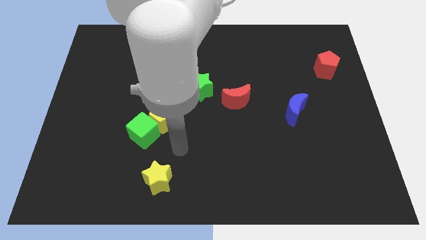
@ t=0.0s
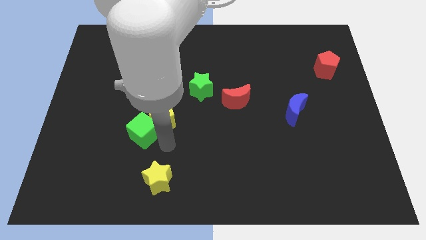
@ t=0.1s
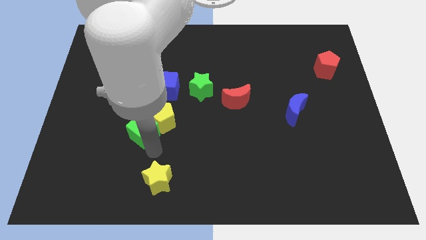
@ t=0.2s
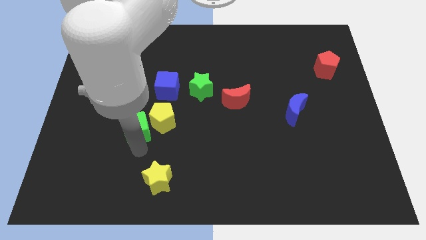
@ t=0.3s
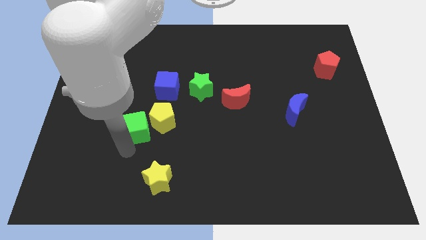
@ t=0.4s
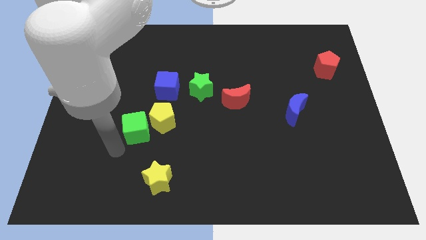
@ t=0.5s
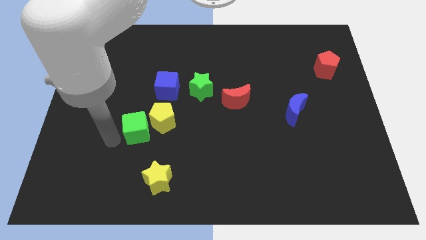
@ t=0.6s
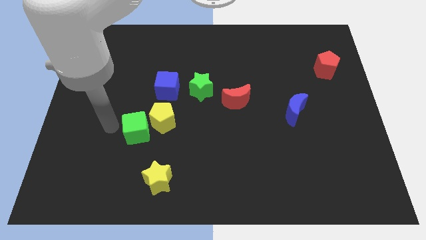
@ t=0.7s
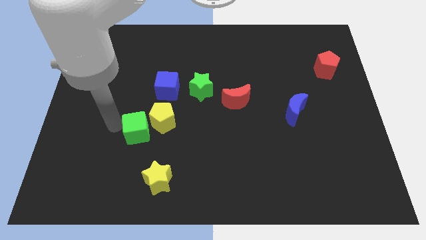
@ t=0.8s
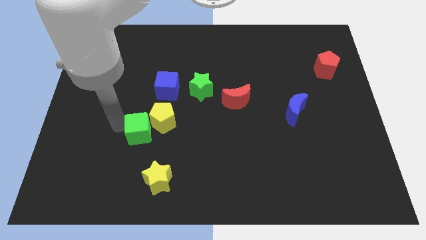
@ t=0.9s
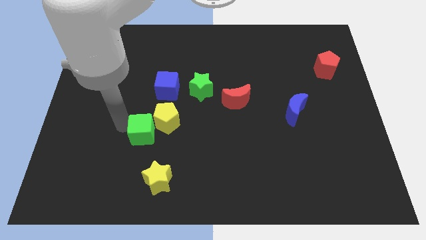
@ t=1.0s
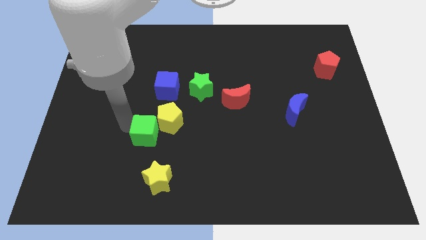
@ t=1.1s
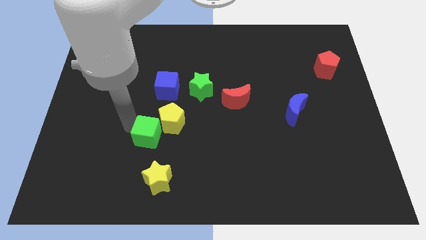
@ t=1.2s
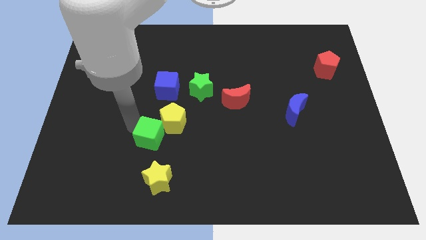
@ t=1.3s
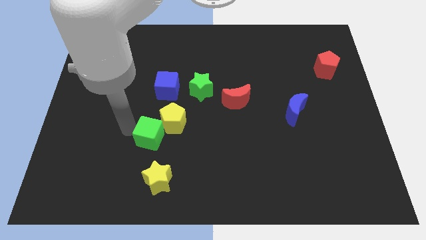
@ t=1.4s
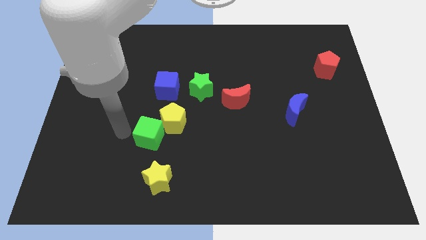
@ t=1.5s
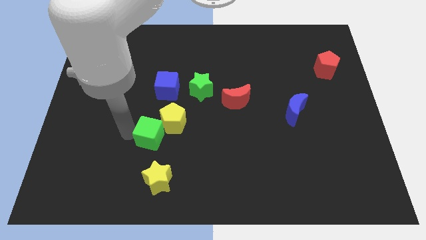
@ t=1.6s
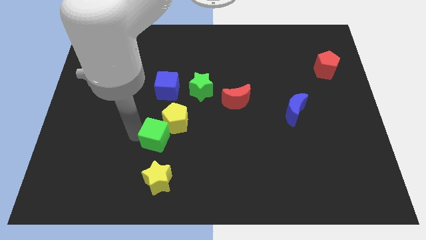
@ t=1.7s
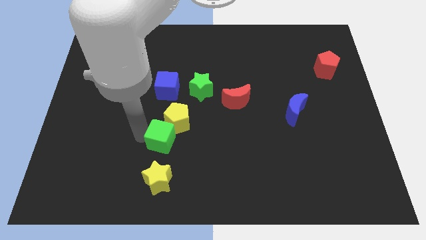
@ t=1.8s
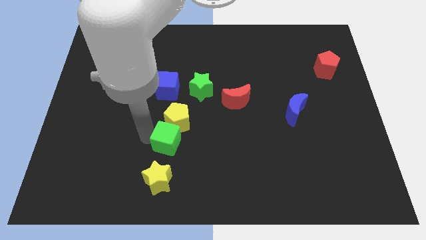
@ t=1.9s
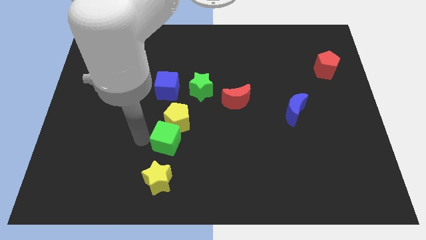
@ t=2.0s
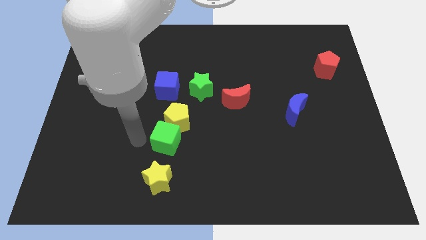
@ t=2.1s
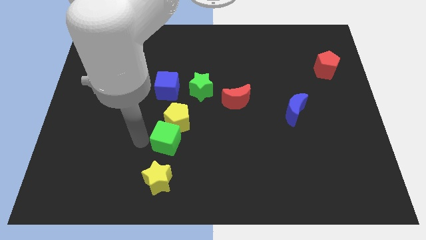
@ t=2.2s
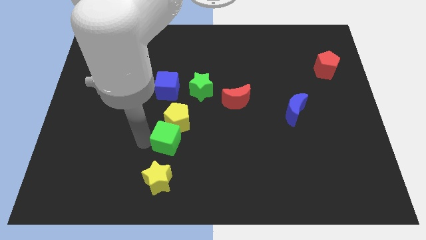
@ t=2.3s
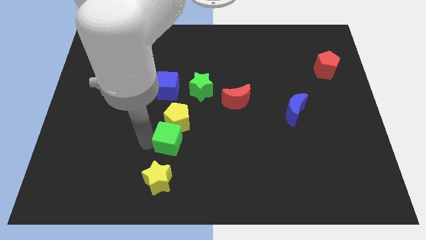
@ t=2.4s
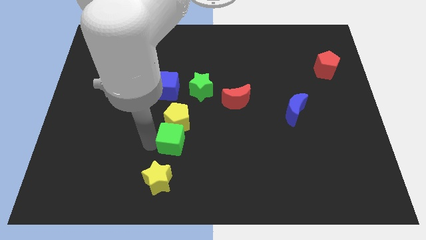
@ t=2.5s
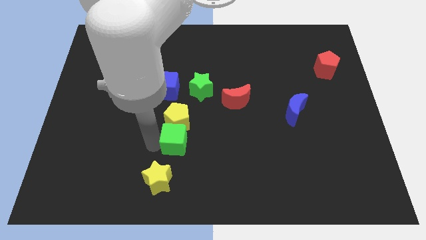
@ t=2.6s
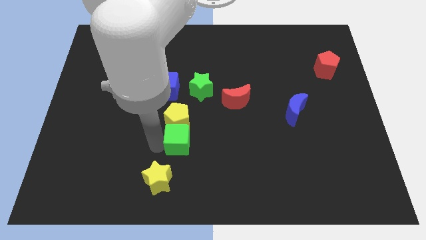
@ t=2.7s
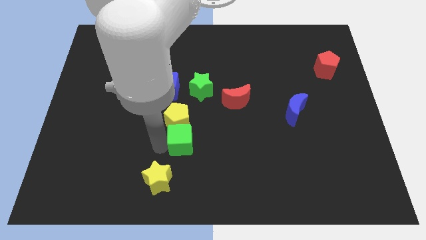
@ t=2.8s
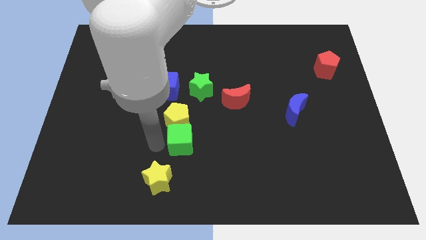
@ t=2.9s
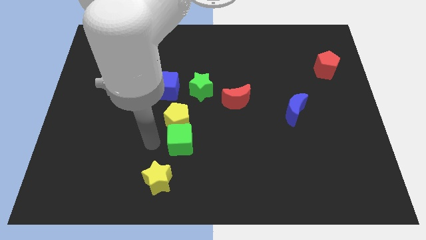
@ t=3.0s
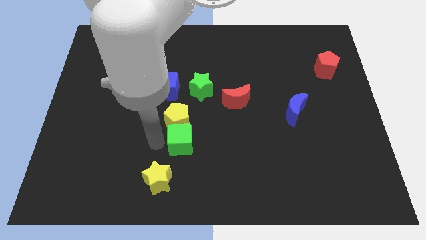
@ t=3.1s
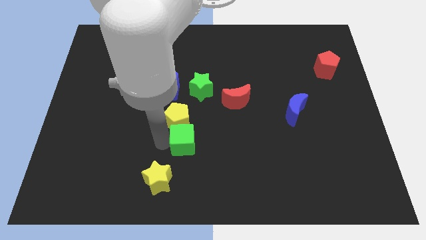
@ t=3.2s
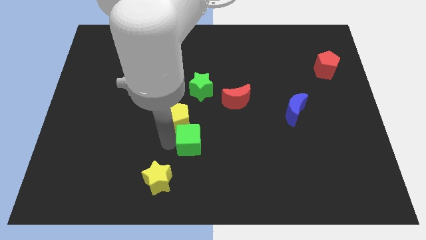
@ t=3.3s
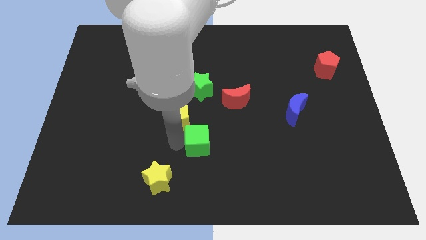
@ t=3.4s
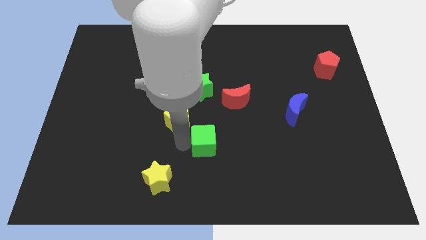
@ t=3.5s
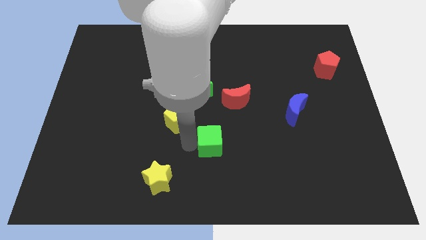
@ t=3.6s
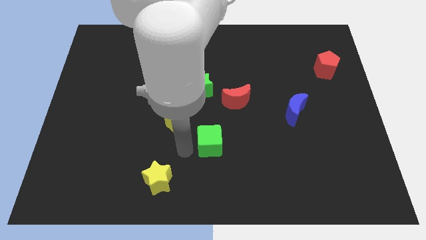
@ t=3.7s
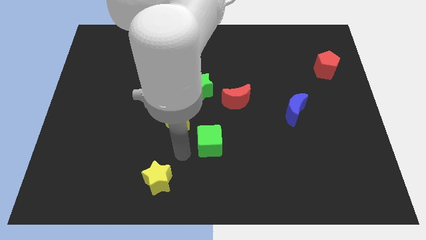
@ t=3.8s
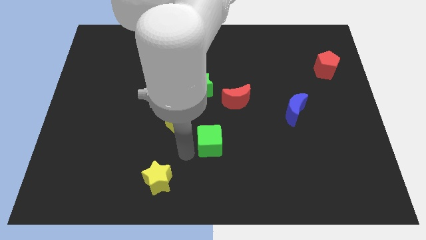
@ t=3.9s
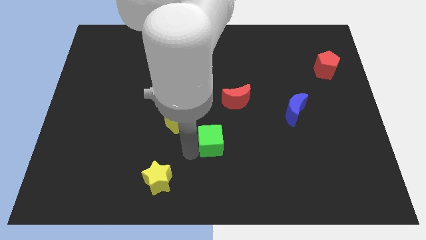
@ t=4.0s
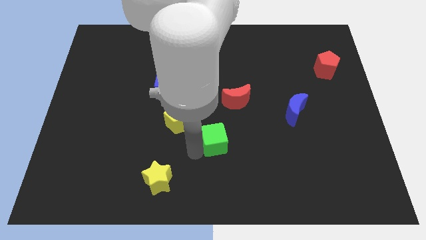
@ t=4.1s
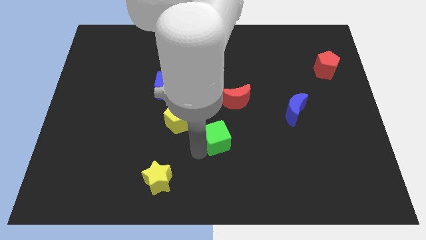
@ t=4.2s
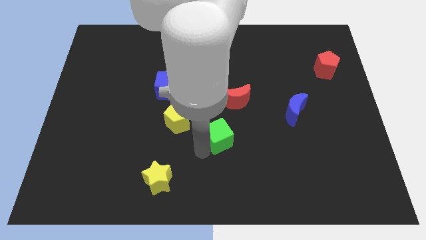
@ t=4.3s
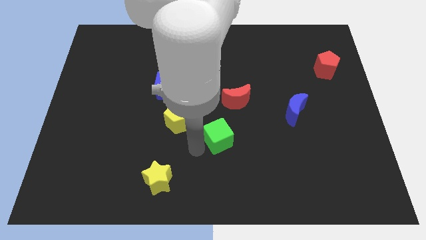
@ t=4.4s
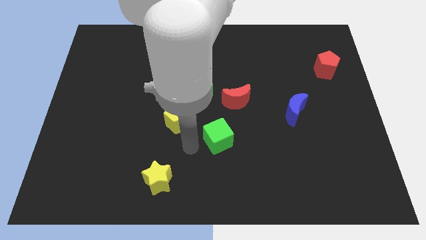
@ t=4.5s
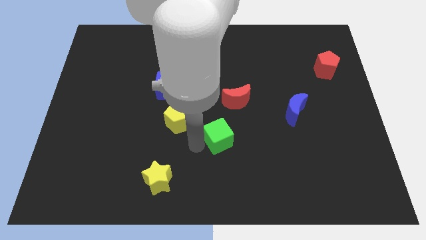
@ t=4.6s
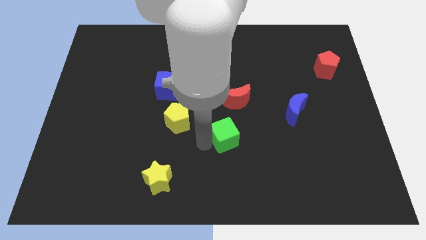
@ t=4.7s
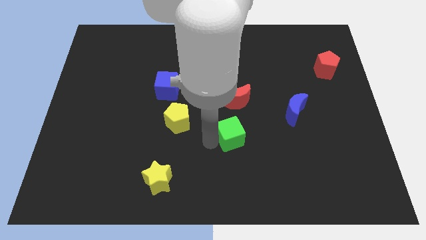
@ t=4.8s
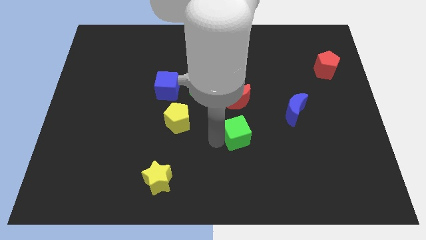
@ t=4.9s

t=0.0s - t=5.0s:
slide the green cube right

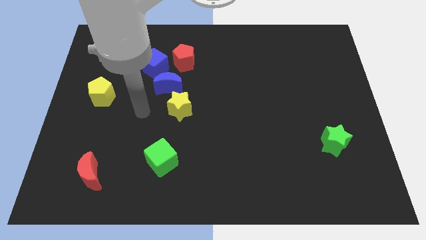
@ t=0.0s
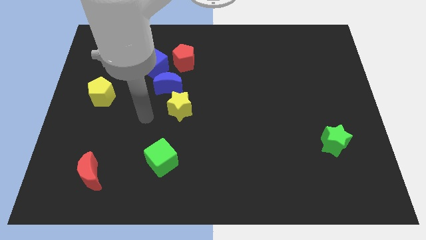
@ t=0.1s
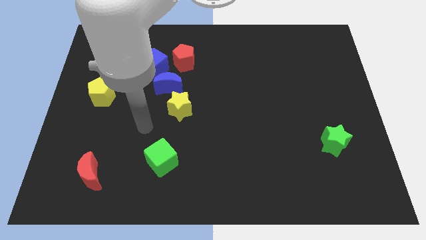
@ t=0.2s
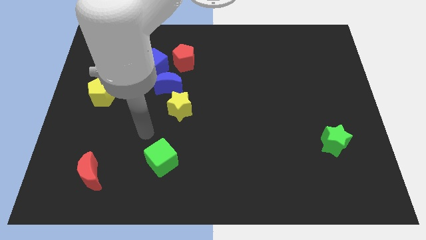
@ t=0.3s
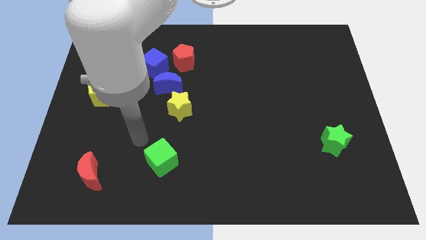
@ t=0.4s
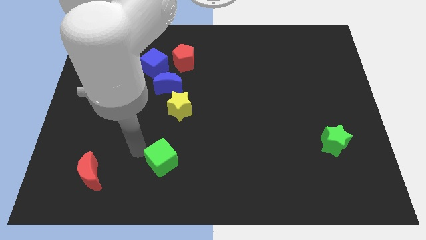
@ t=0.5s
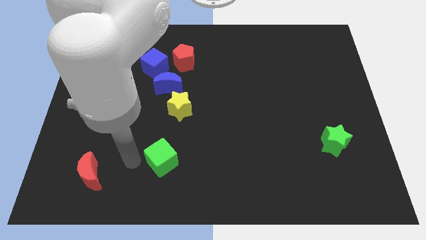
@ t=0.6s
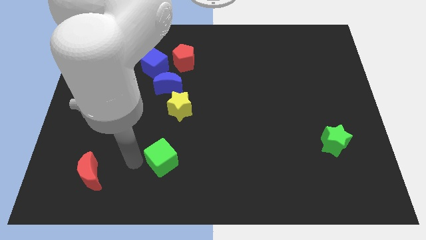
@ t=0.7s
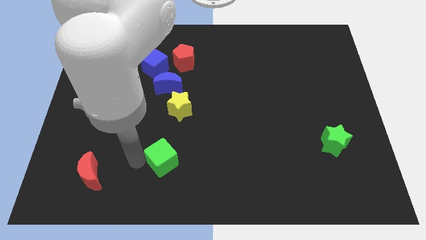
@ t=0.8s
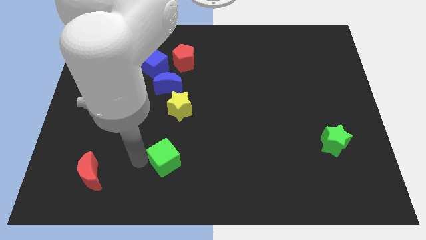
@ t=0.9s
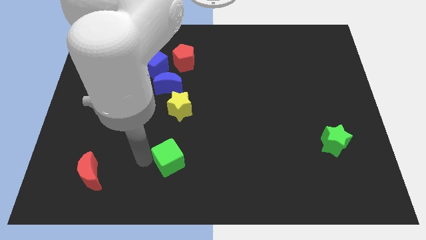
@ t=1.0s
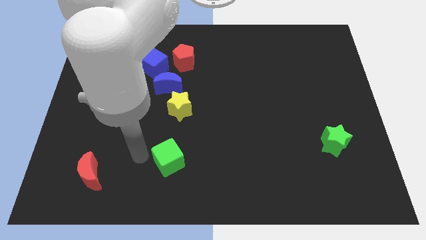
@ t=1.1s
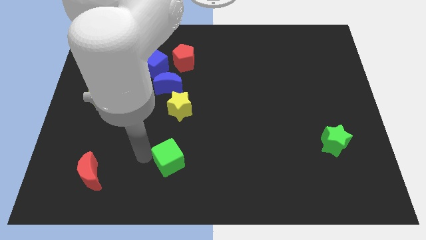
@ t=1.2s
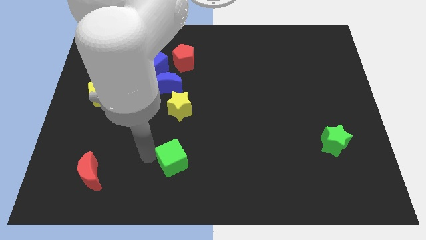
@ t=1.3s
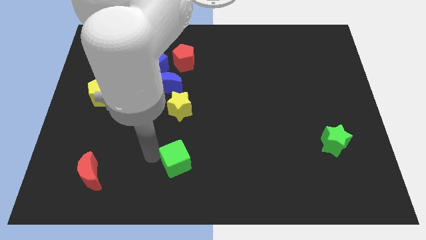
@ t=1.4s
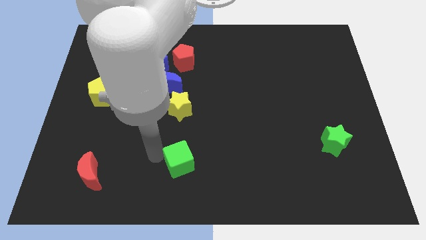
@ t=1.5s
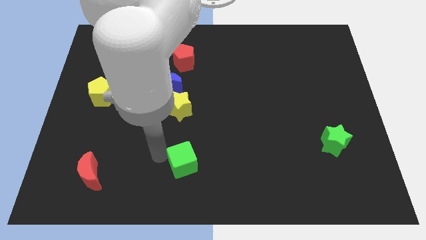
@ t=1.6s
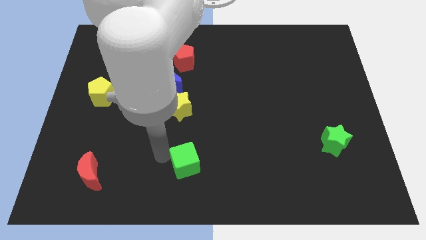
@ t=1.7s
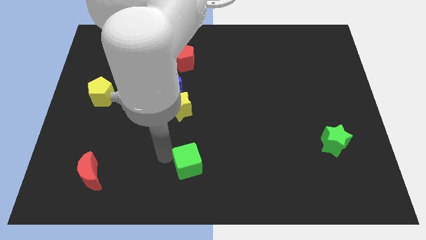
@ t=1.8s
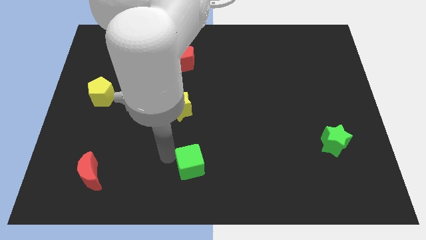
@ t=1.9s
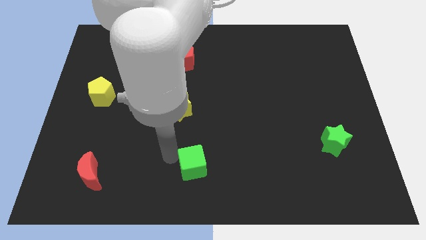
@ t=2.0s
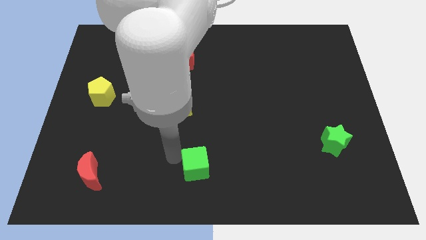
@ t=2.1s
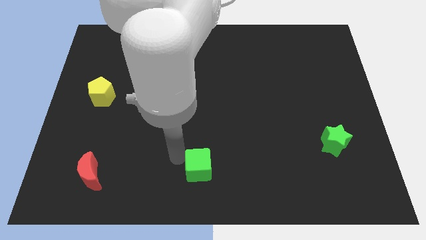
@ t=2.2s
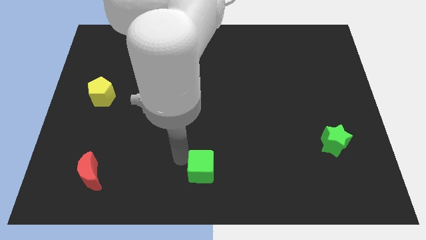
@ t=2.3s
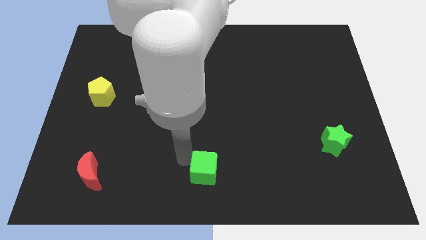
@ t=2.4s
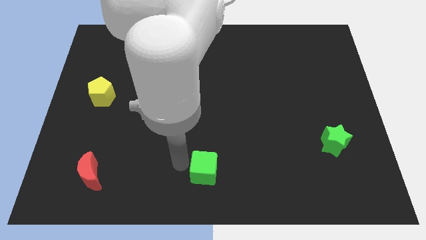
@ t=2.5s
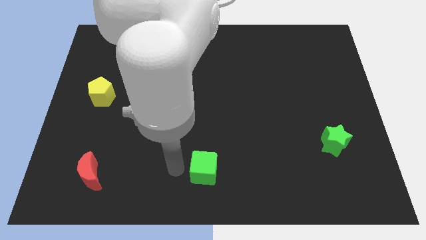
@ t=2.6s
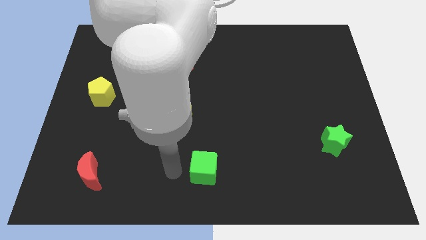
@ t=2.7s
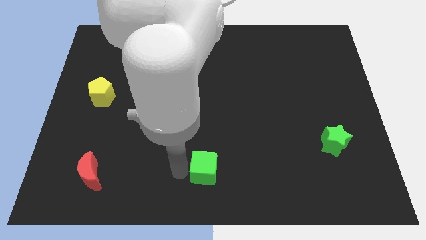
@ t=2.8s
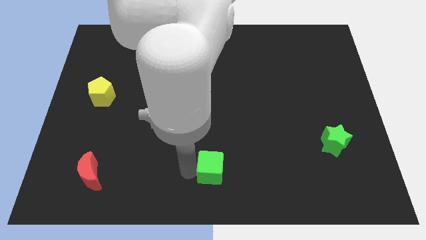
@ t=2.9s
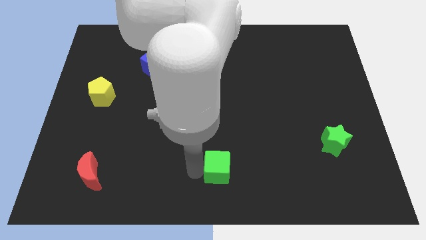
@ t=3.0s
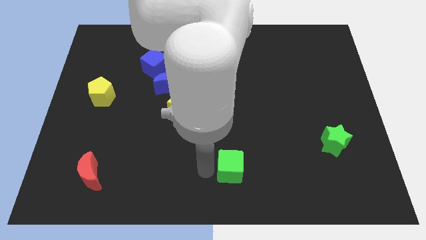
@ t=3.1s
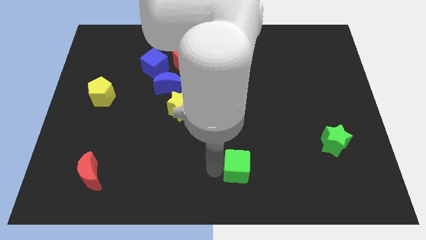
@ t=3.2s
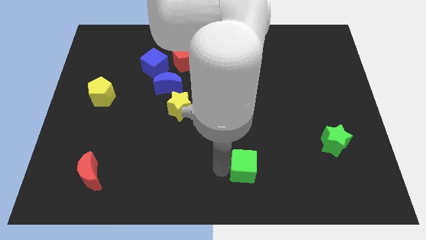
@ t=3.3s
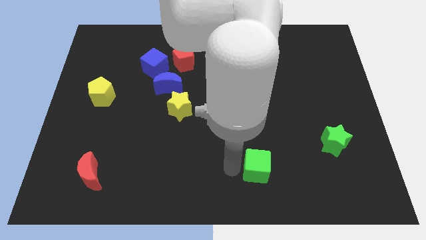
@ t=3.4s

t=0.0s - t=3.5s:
push the green cube right
